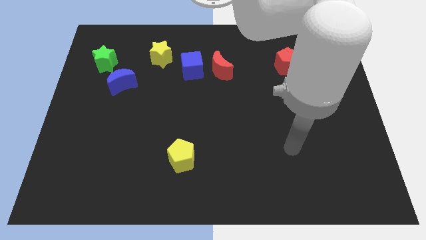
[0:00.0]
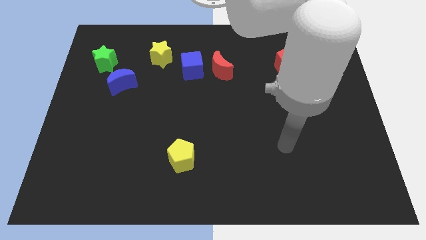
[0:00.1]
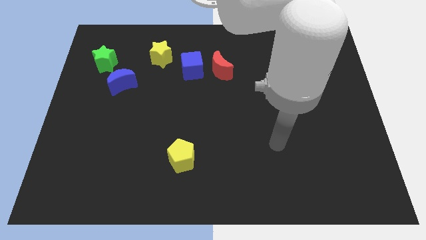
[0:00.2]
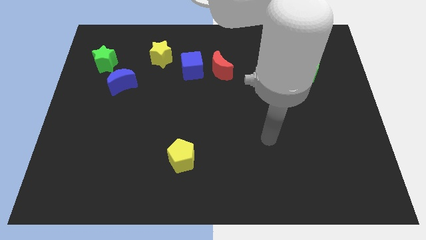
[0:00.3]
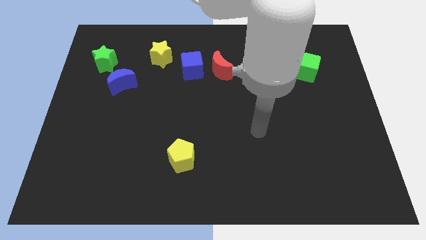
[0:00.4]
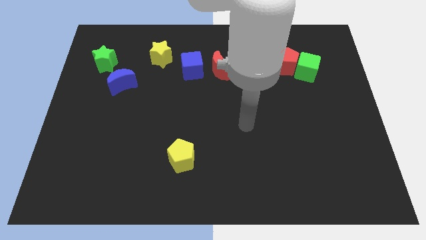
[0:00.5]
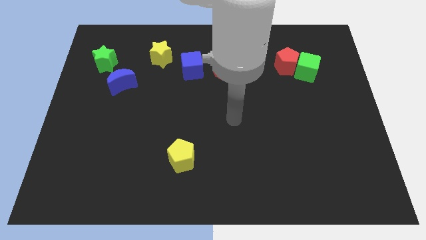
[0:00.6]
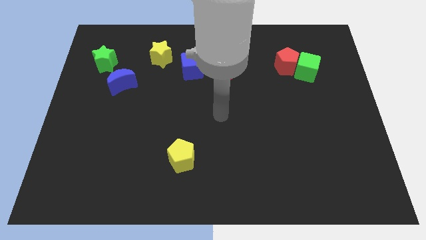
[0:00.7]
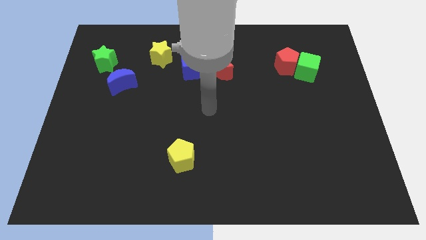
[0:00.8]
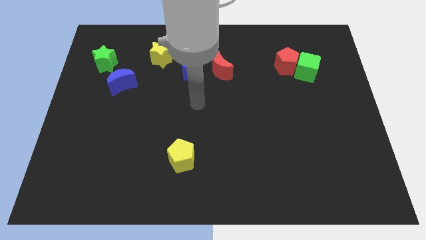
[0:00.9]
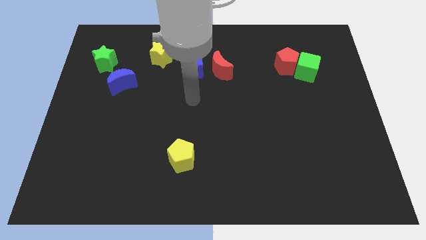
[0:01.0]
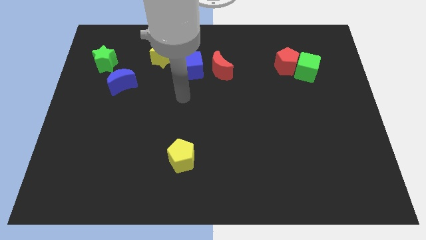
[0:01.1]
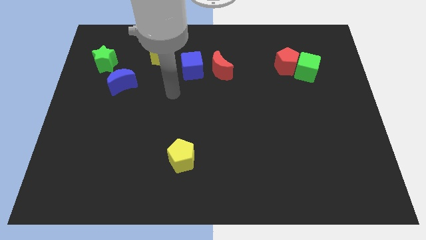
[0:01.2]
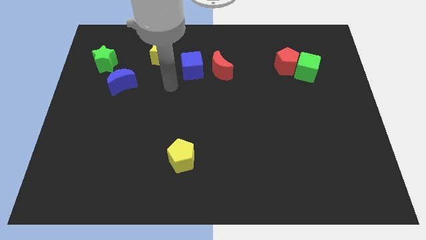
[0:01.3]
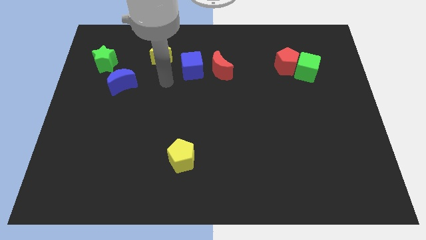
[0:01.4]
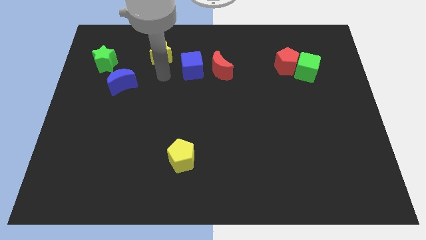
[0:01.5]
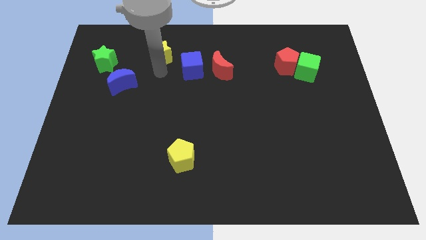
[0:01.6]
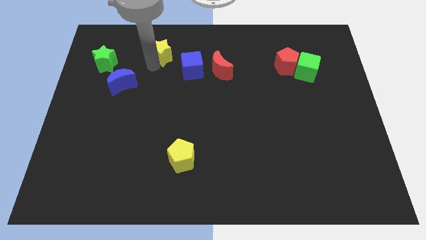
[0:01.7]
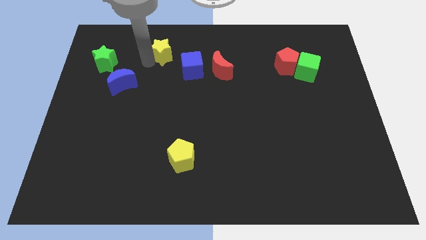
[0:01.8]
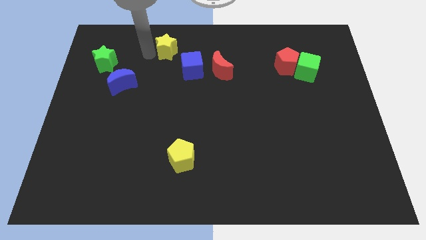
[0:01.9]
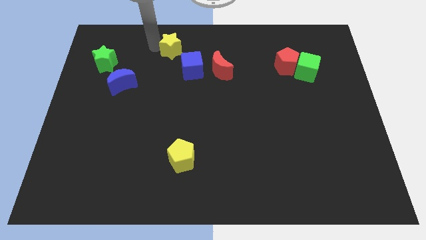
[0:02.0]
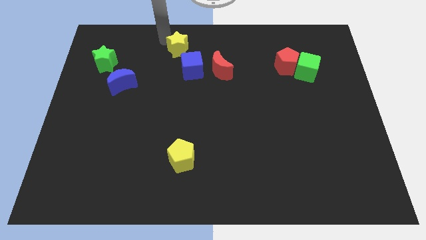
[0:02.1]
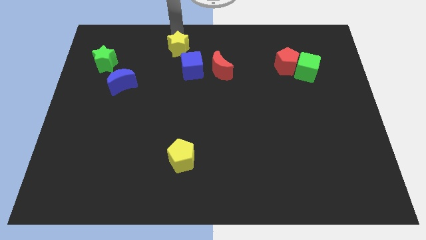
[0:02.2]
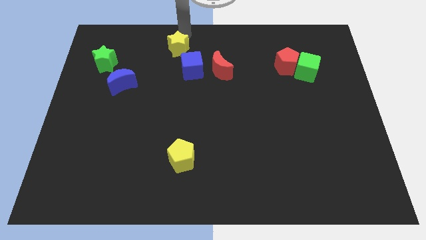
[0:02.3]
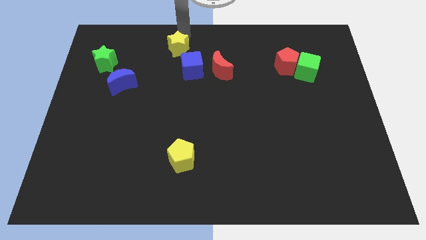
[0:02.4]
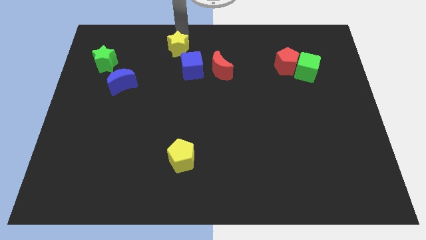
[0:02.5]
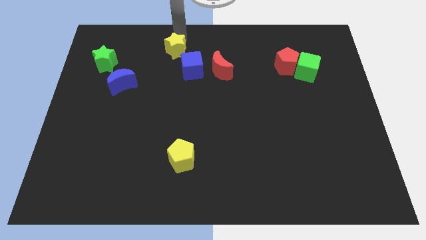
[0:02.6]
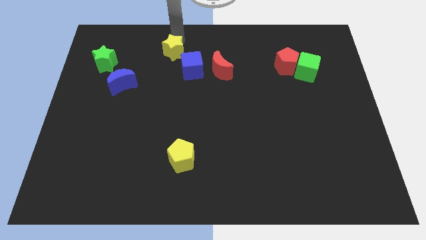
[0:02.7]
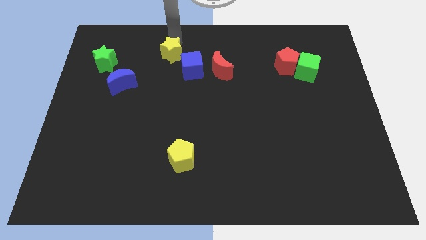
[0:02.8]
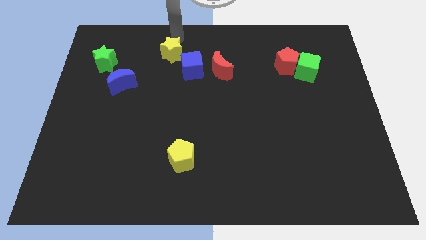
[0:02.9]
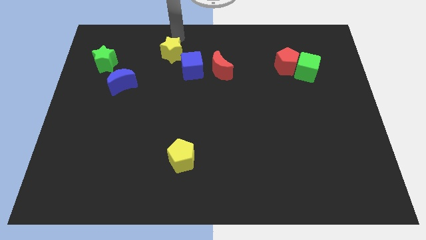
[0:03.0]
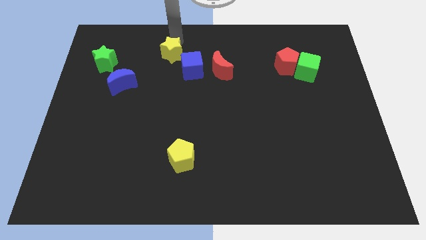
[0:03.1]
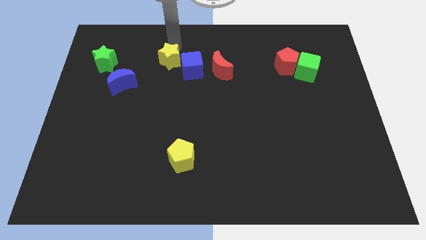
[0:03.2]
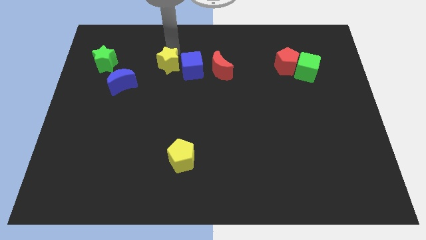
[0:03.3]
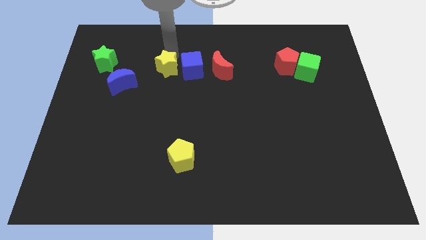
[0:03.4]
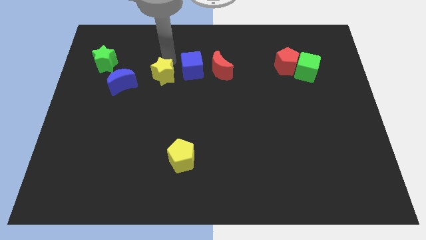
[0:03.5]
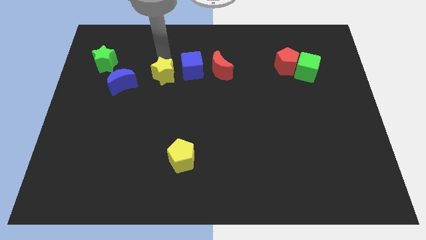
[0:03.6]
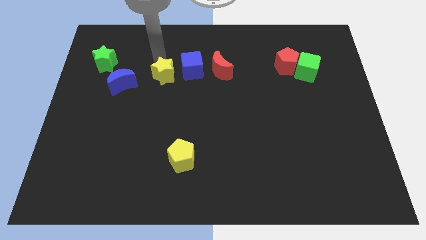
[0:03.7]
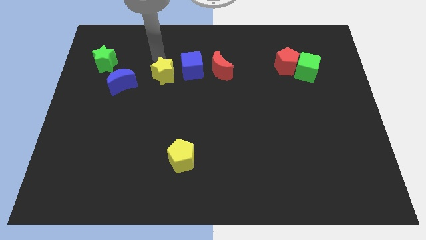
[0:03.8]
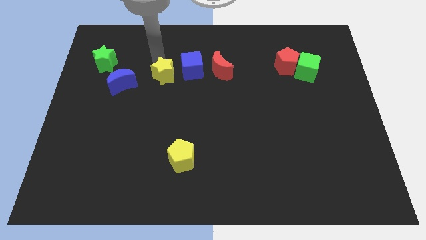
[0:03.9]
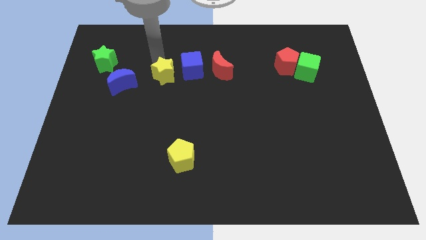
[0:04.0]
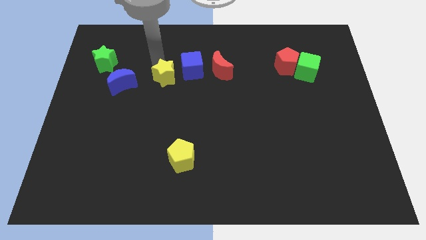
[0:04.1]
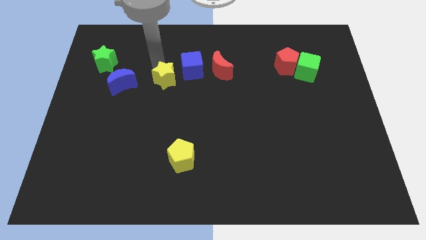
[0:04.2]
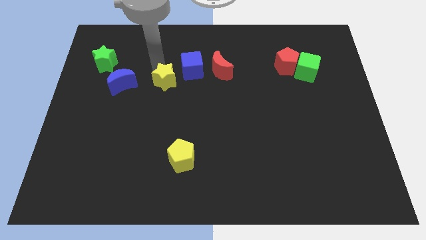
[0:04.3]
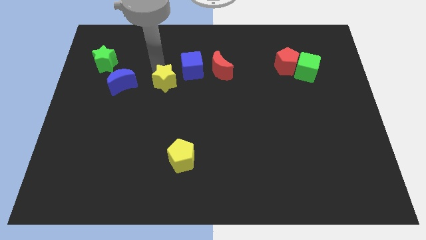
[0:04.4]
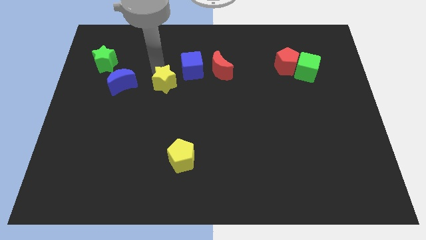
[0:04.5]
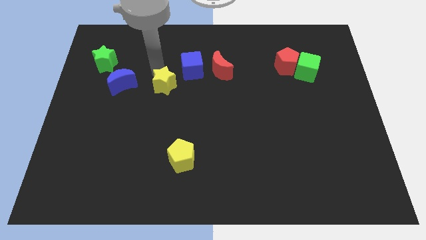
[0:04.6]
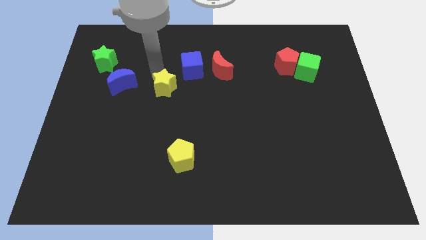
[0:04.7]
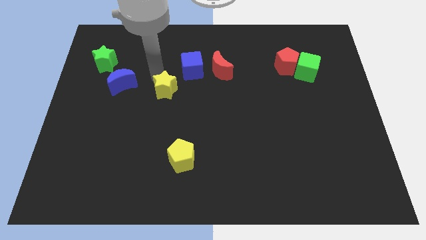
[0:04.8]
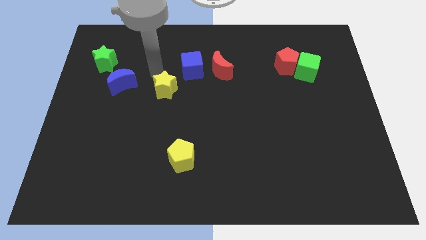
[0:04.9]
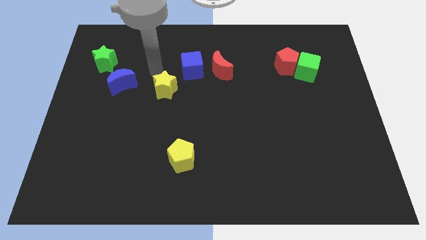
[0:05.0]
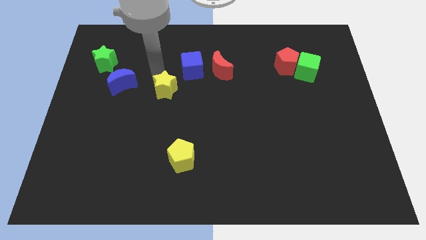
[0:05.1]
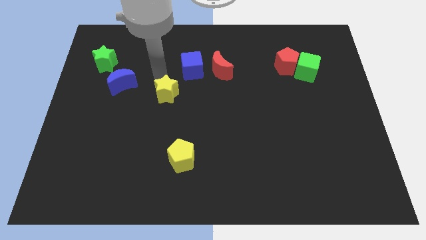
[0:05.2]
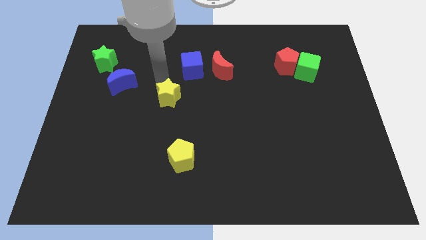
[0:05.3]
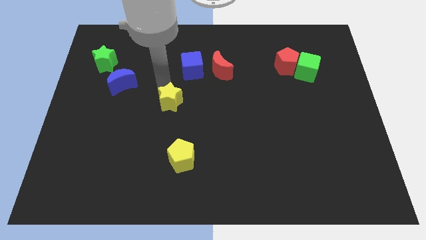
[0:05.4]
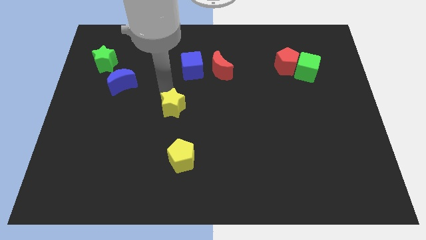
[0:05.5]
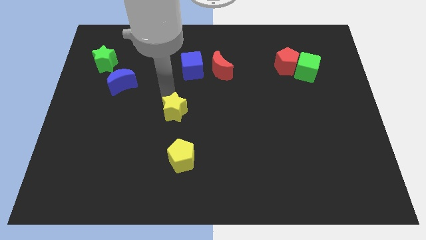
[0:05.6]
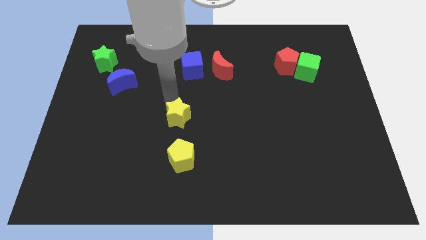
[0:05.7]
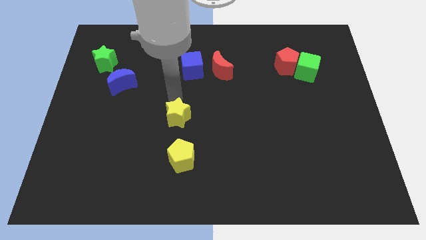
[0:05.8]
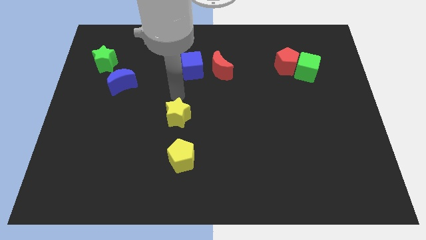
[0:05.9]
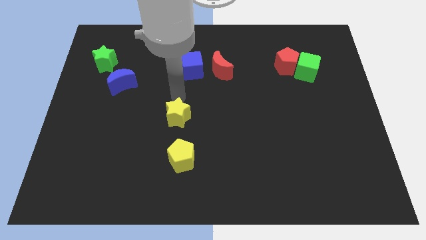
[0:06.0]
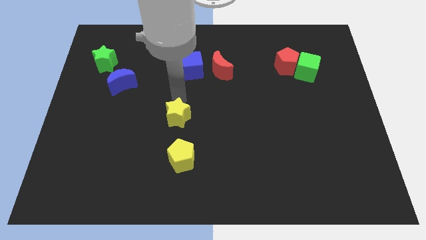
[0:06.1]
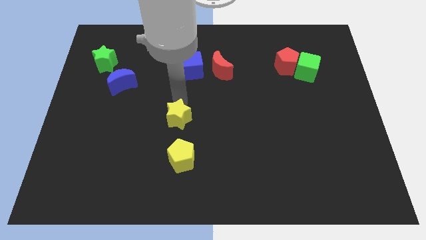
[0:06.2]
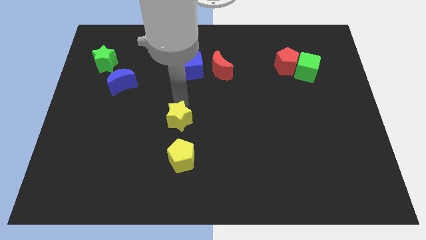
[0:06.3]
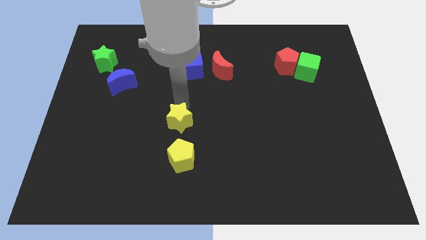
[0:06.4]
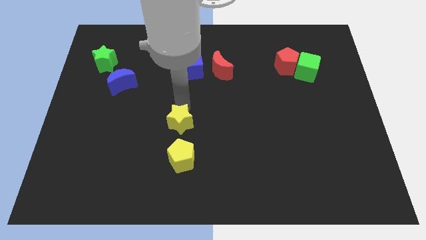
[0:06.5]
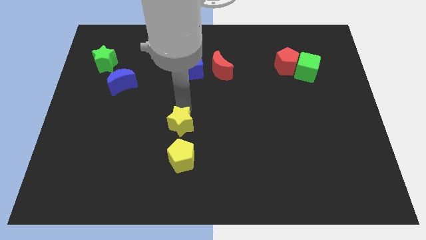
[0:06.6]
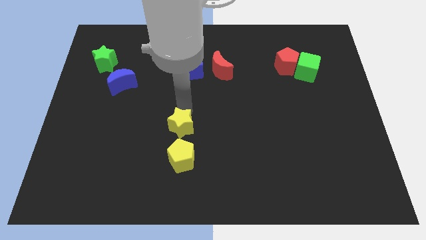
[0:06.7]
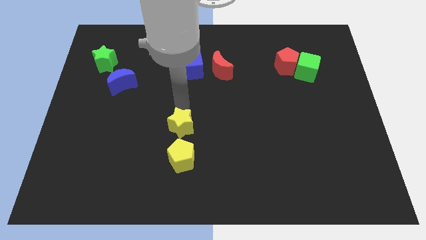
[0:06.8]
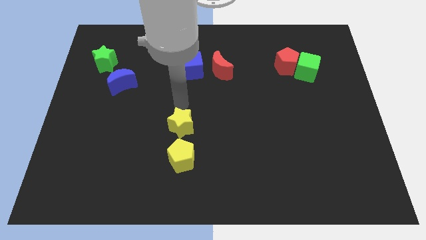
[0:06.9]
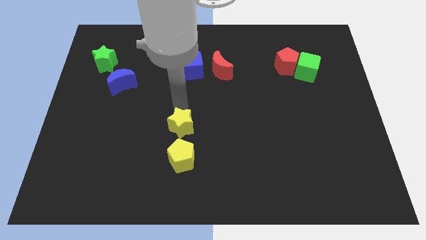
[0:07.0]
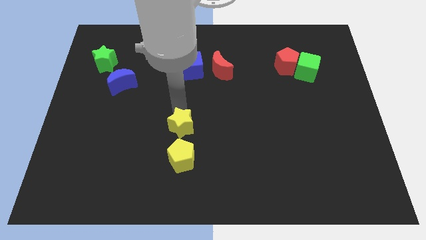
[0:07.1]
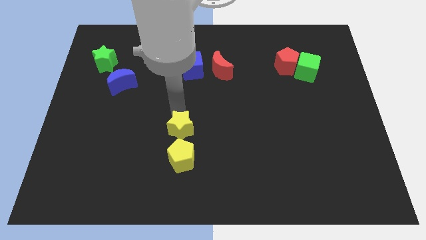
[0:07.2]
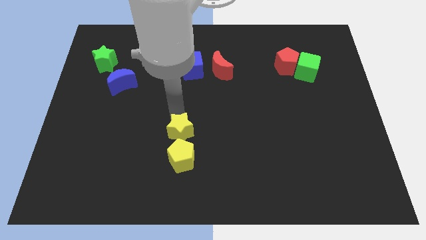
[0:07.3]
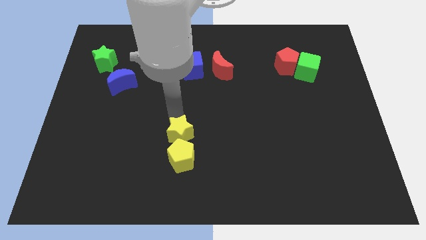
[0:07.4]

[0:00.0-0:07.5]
slide the yellow star next to the yellow pentagon

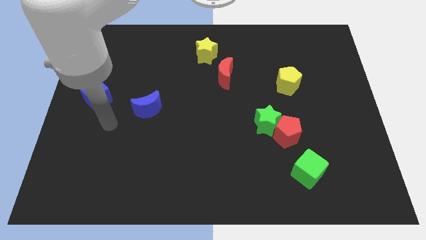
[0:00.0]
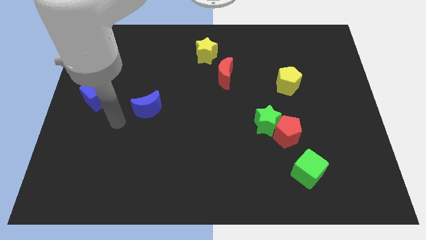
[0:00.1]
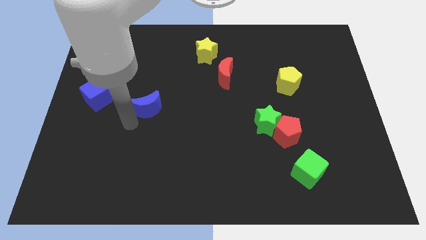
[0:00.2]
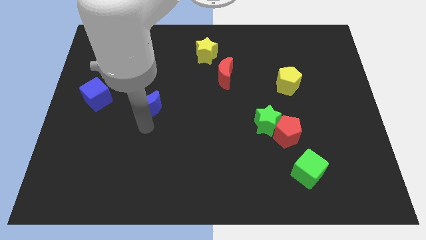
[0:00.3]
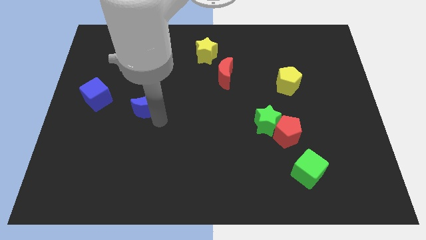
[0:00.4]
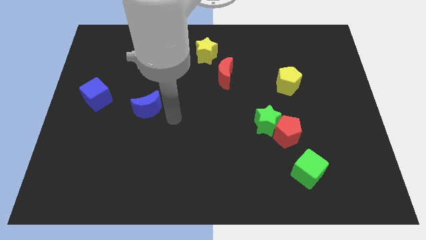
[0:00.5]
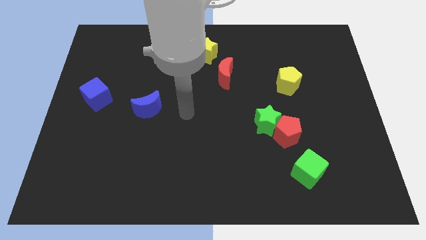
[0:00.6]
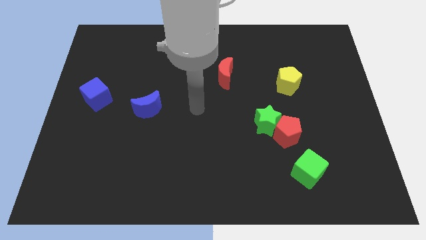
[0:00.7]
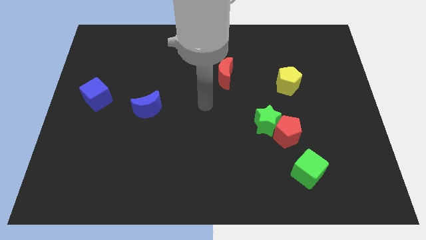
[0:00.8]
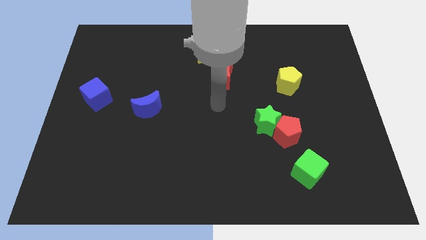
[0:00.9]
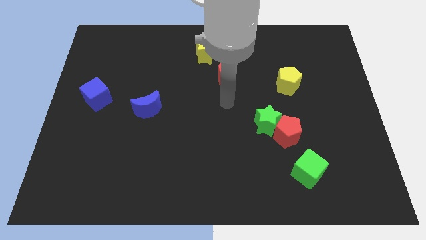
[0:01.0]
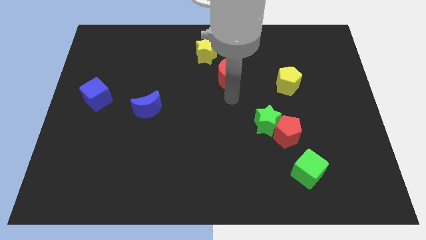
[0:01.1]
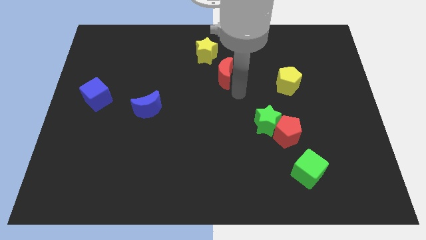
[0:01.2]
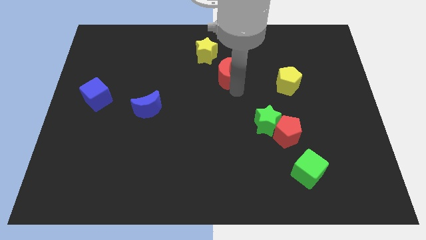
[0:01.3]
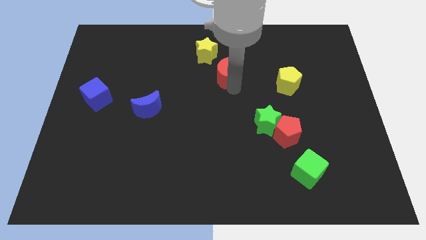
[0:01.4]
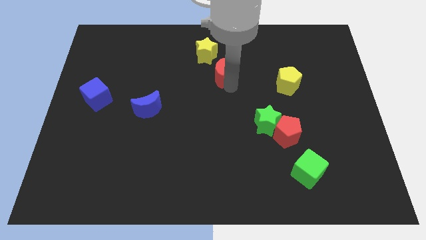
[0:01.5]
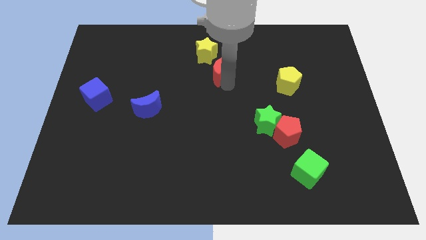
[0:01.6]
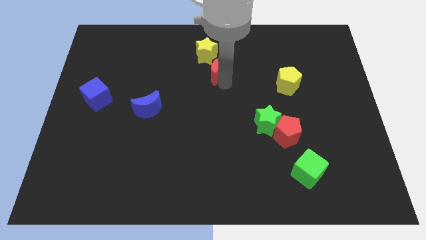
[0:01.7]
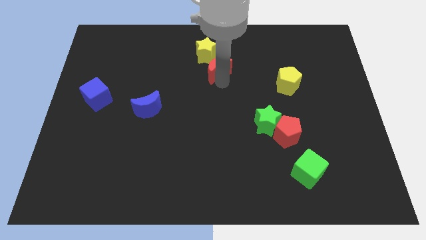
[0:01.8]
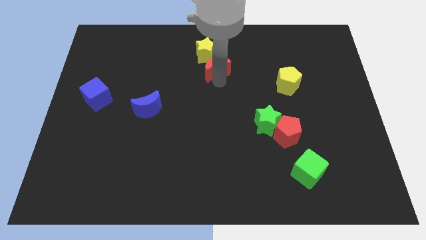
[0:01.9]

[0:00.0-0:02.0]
put the red moon close to the yellow star
